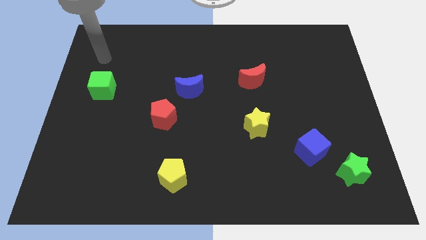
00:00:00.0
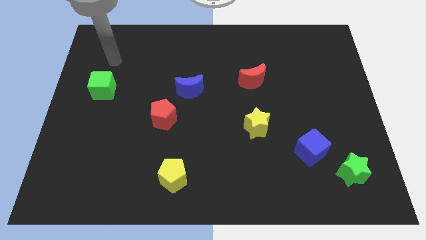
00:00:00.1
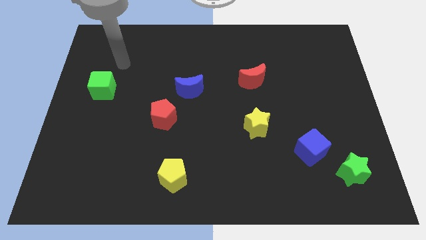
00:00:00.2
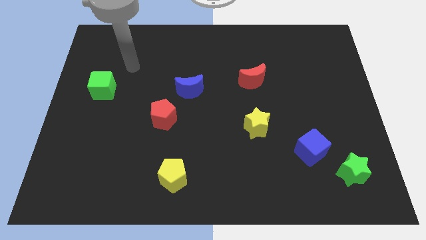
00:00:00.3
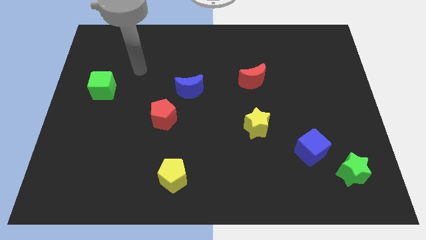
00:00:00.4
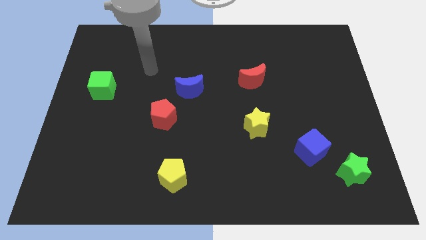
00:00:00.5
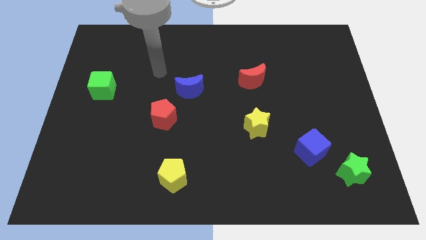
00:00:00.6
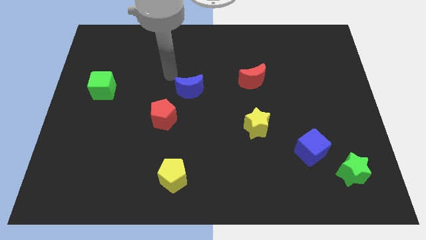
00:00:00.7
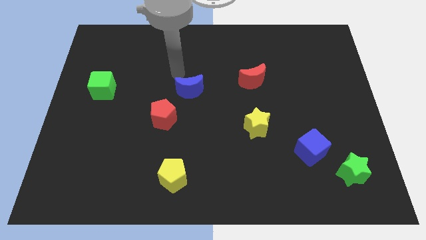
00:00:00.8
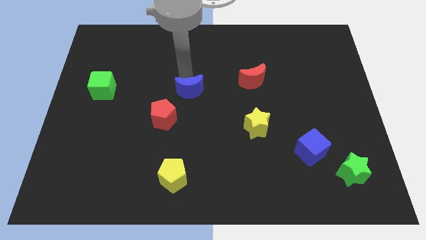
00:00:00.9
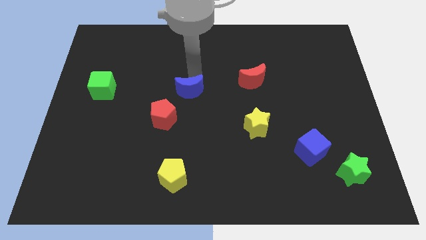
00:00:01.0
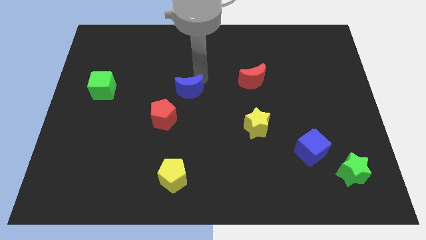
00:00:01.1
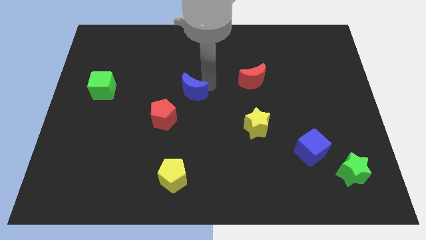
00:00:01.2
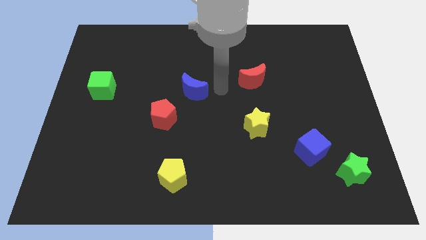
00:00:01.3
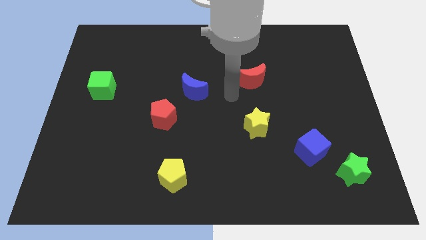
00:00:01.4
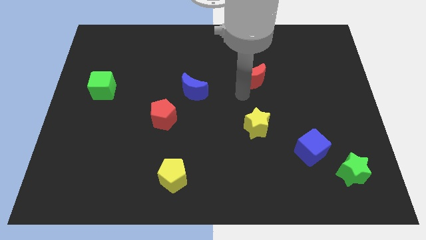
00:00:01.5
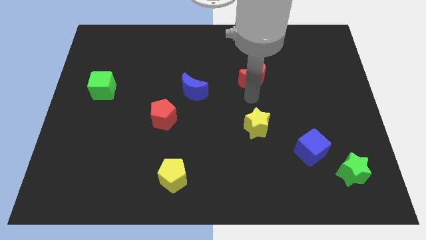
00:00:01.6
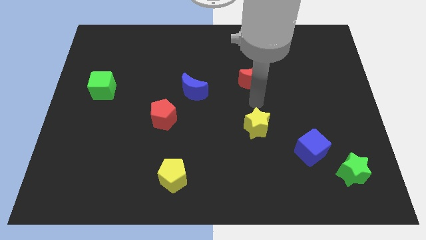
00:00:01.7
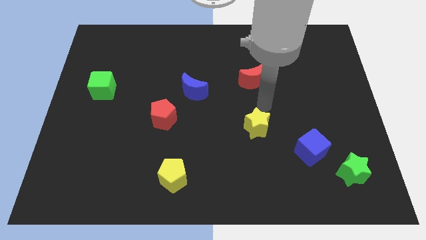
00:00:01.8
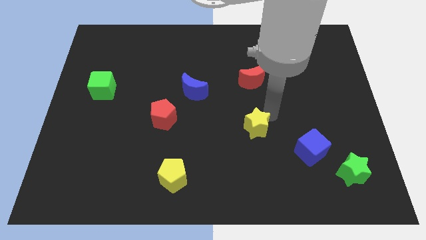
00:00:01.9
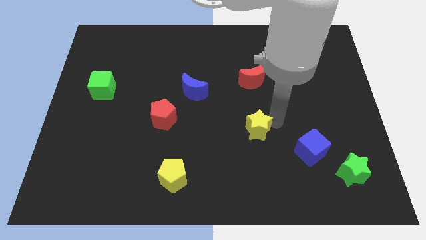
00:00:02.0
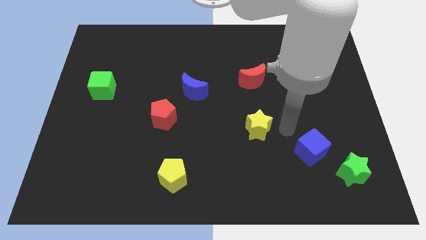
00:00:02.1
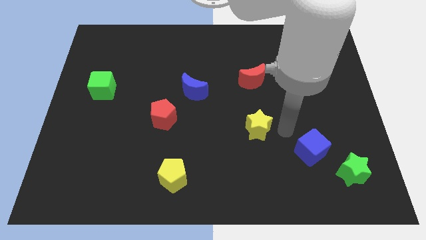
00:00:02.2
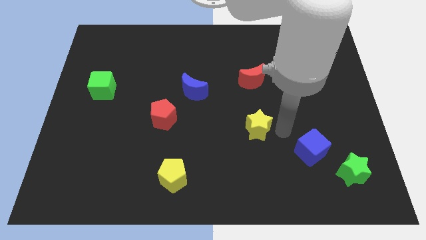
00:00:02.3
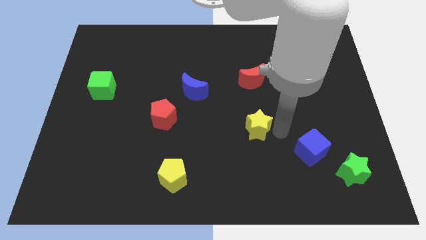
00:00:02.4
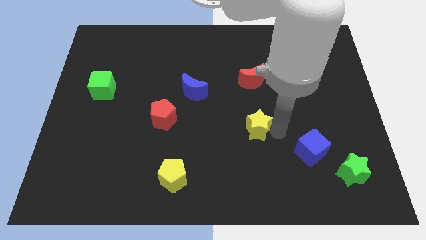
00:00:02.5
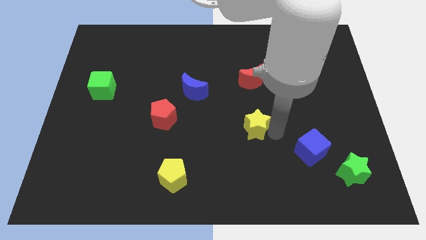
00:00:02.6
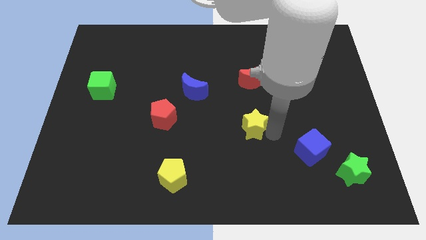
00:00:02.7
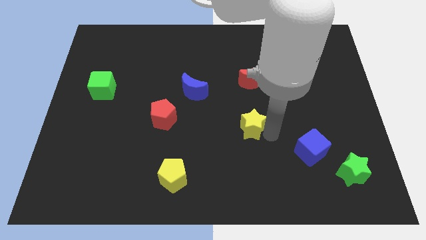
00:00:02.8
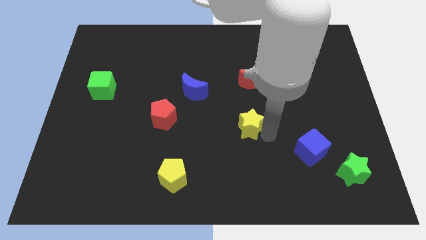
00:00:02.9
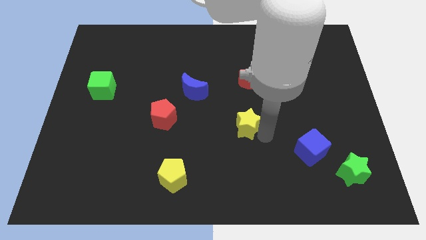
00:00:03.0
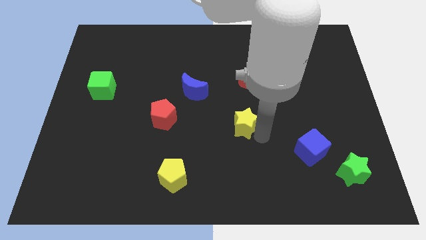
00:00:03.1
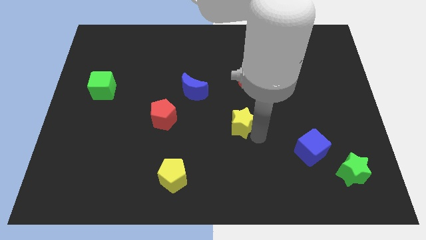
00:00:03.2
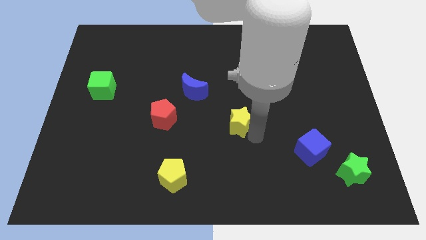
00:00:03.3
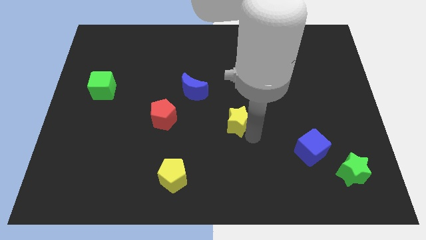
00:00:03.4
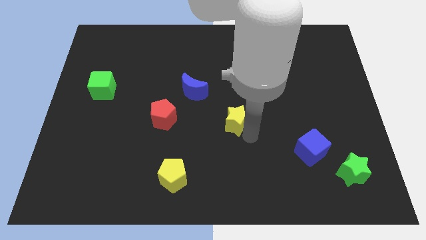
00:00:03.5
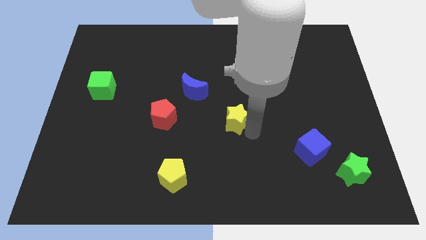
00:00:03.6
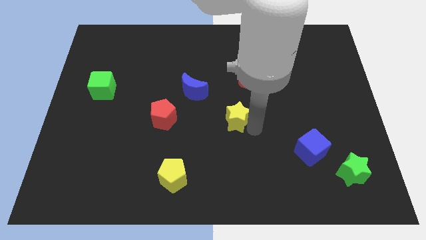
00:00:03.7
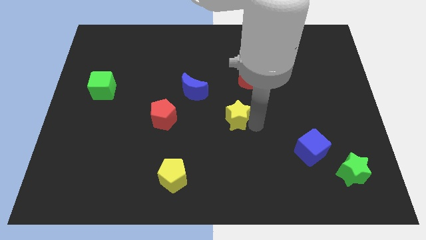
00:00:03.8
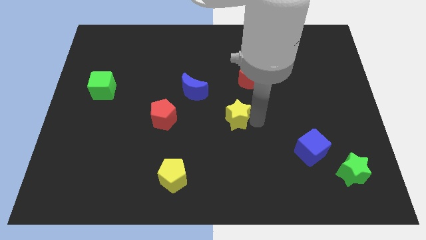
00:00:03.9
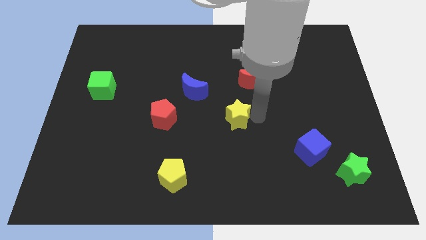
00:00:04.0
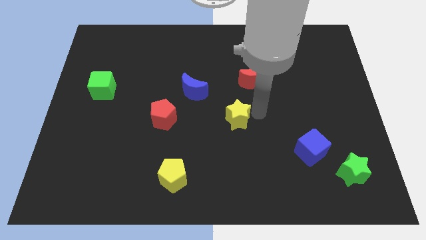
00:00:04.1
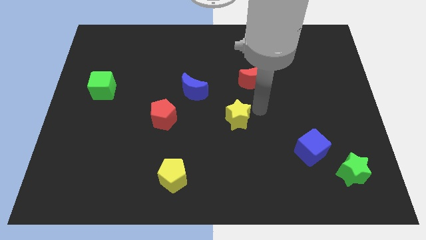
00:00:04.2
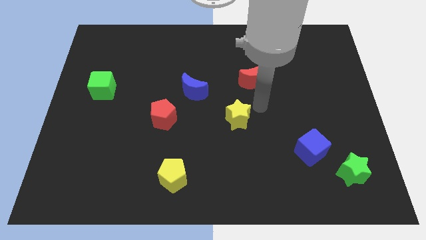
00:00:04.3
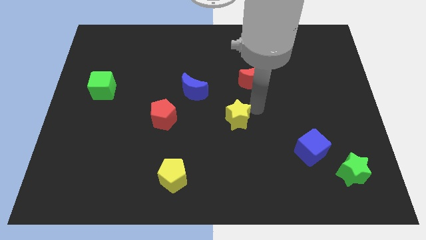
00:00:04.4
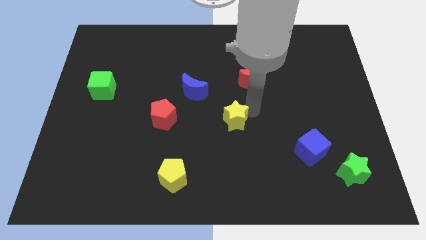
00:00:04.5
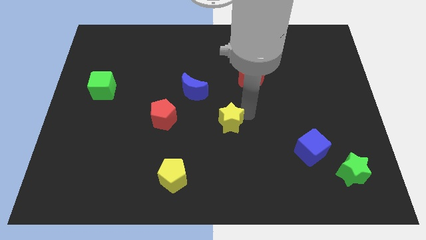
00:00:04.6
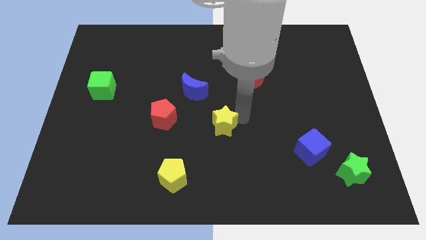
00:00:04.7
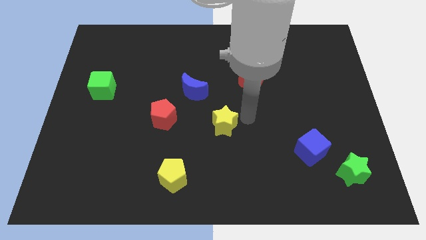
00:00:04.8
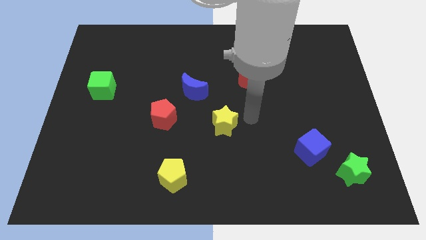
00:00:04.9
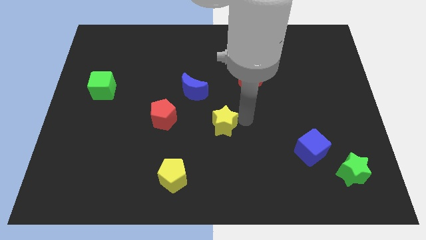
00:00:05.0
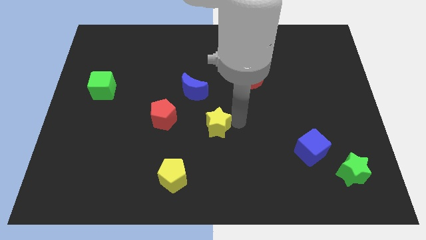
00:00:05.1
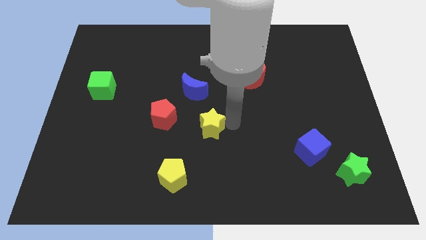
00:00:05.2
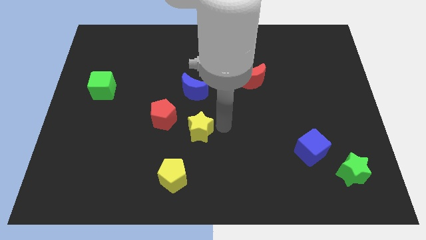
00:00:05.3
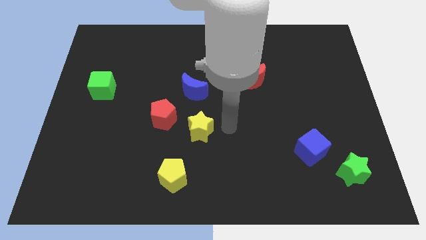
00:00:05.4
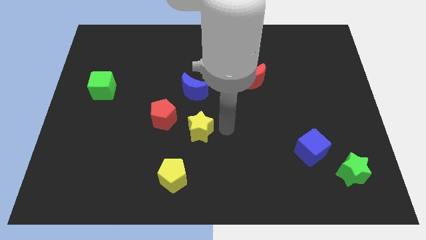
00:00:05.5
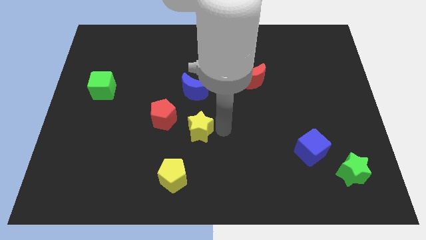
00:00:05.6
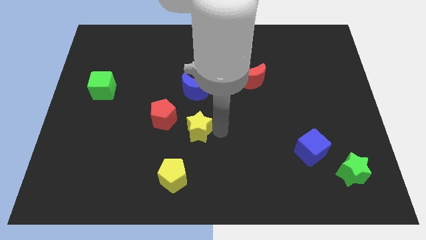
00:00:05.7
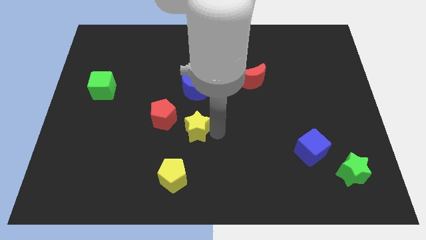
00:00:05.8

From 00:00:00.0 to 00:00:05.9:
move the yellow star to the top of the yellow pentagon

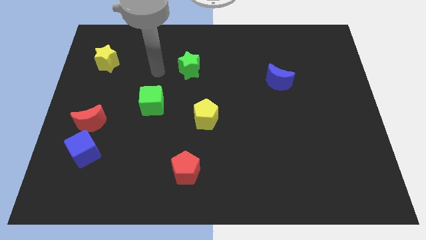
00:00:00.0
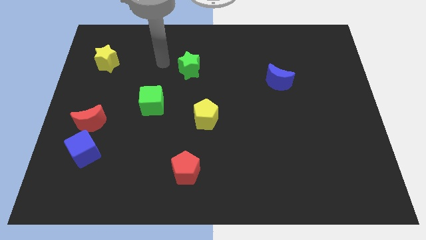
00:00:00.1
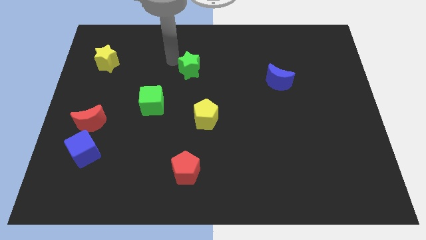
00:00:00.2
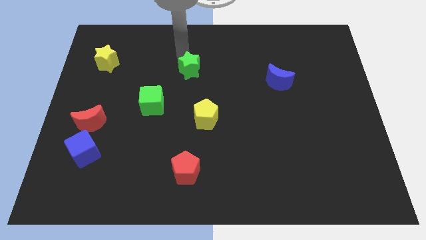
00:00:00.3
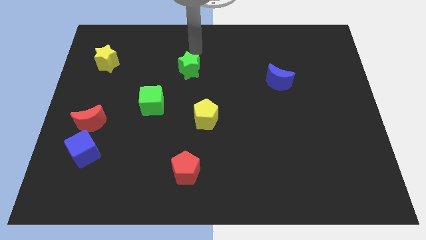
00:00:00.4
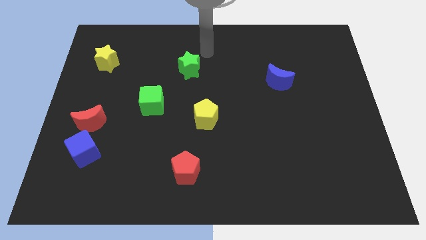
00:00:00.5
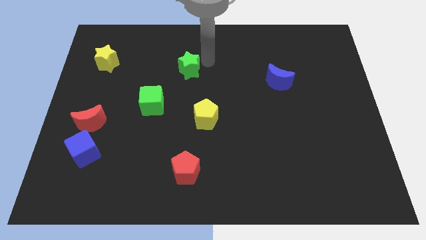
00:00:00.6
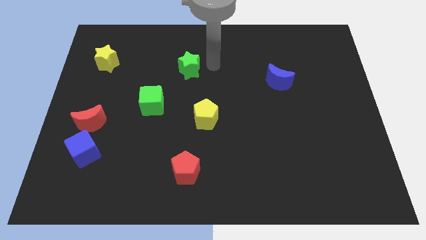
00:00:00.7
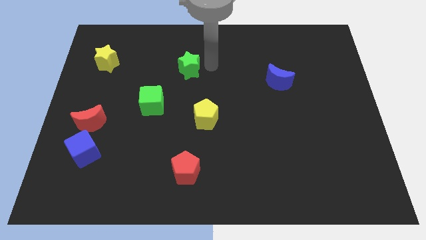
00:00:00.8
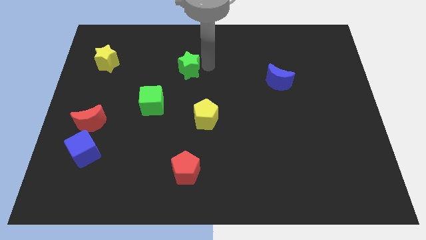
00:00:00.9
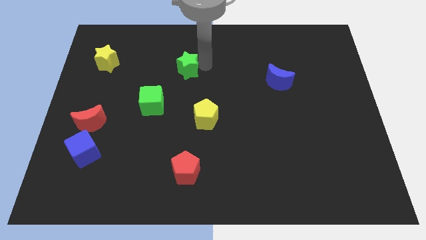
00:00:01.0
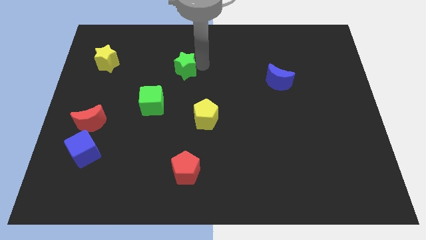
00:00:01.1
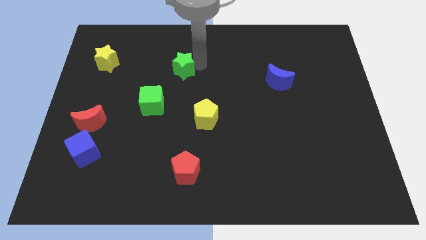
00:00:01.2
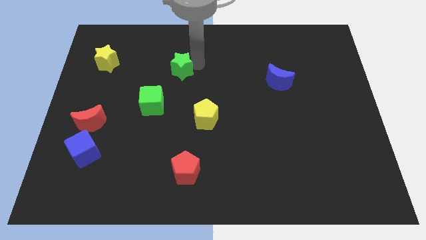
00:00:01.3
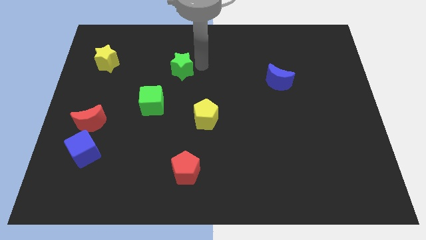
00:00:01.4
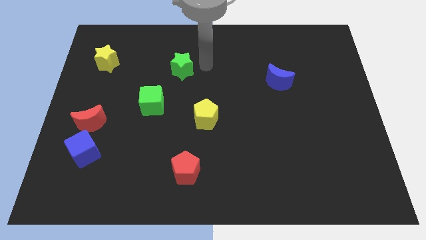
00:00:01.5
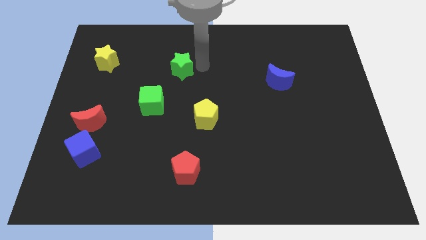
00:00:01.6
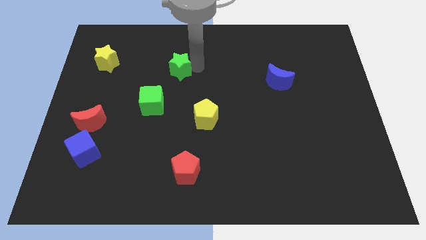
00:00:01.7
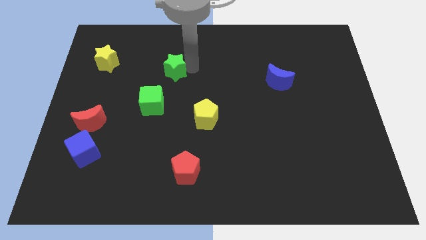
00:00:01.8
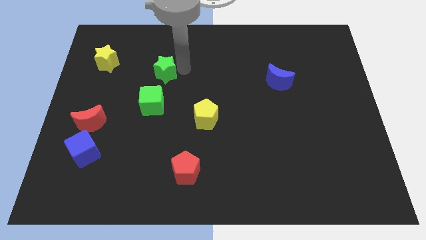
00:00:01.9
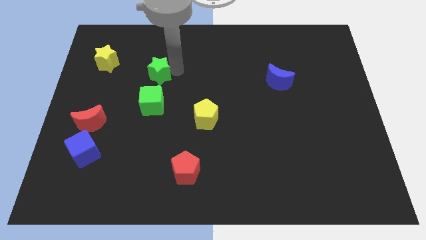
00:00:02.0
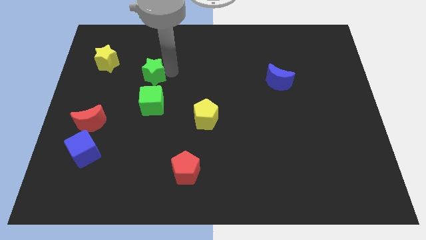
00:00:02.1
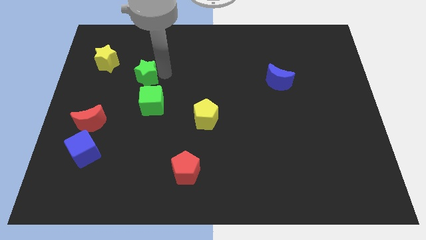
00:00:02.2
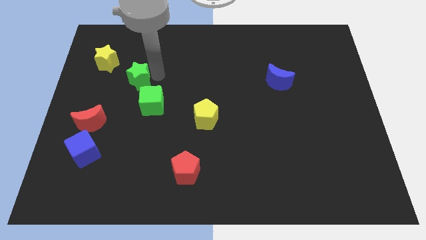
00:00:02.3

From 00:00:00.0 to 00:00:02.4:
slide the green star diagonally down and to the right of the yellow star
